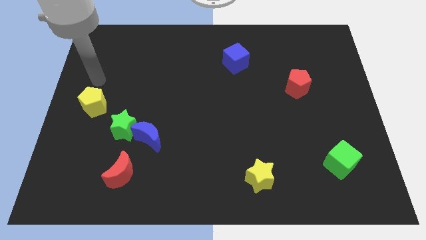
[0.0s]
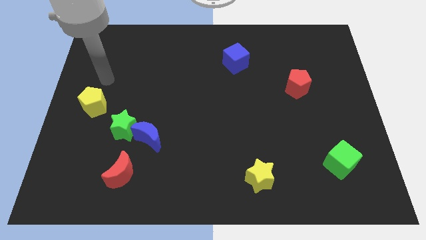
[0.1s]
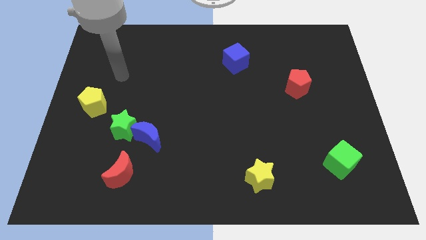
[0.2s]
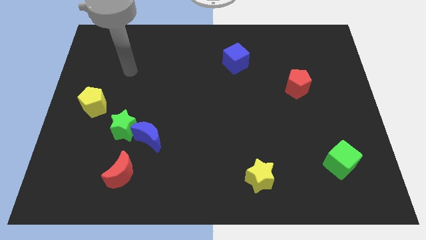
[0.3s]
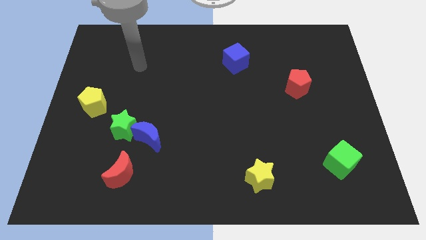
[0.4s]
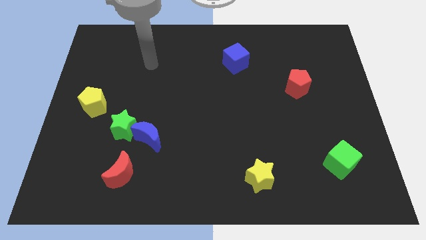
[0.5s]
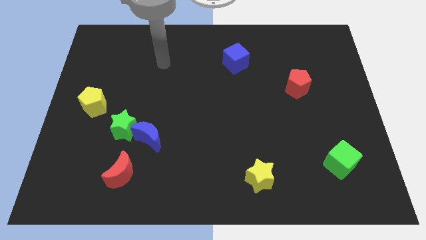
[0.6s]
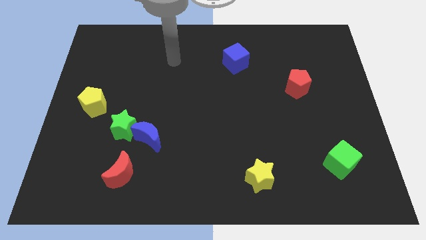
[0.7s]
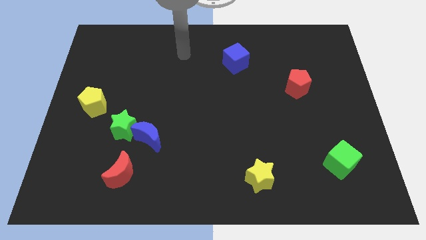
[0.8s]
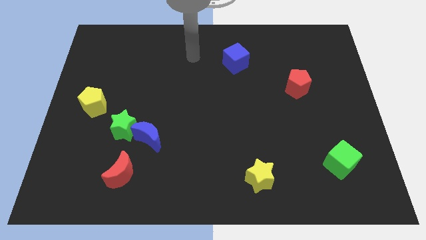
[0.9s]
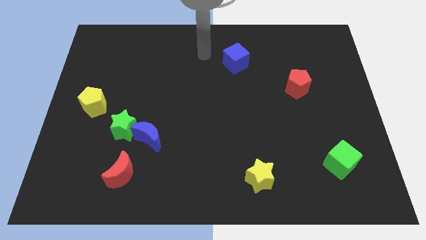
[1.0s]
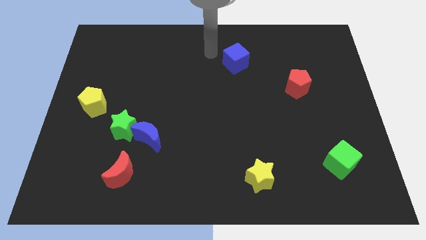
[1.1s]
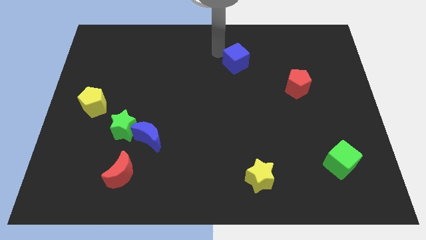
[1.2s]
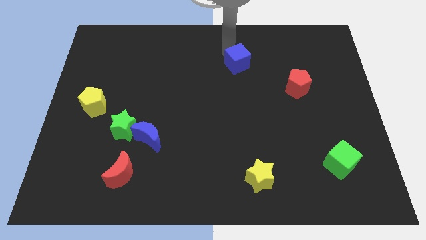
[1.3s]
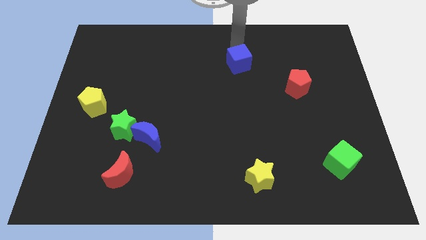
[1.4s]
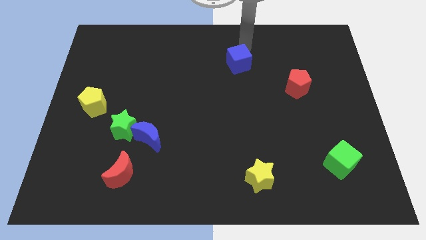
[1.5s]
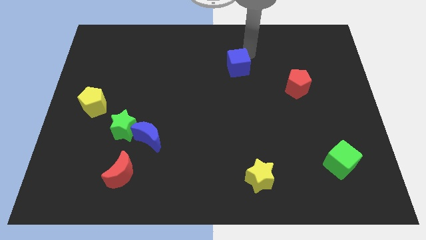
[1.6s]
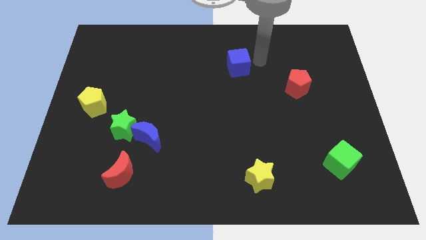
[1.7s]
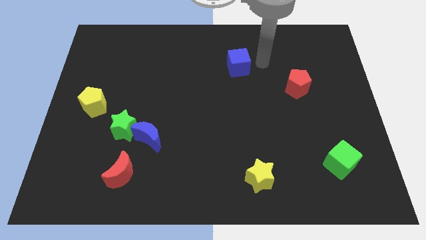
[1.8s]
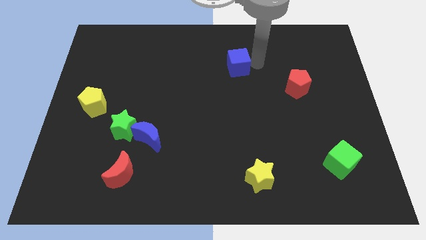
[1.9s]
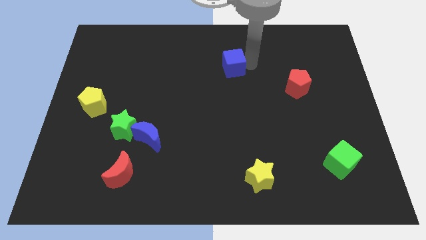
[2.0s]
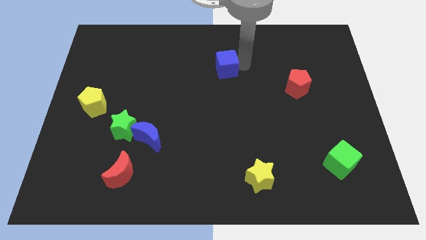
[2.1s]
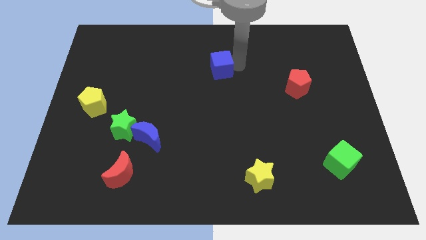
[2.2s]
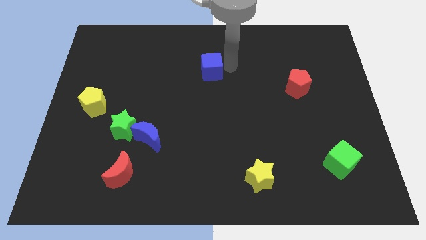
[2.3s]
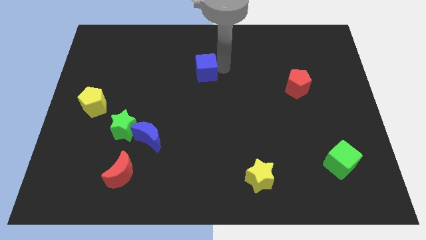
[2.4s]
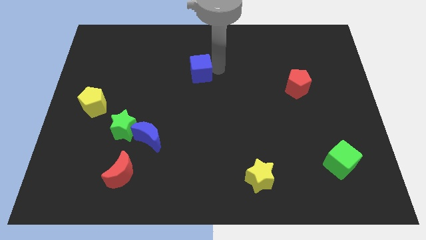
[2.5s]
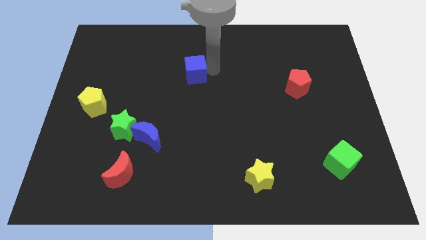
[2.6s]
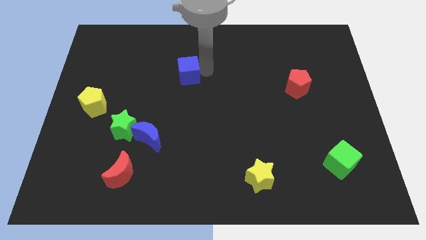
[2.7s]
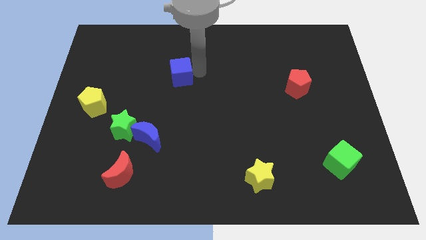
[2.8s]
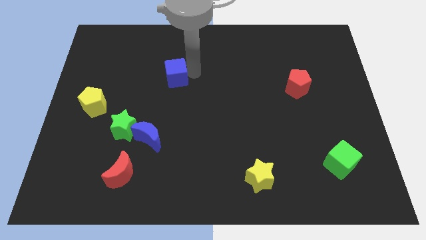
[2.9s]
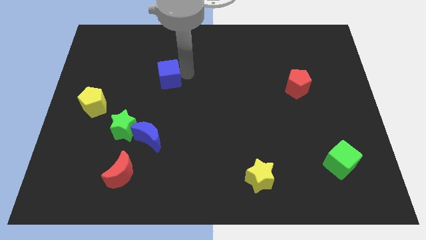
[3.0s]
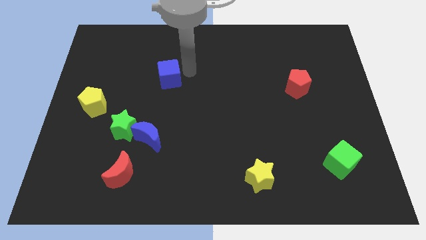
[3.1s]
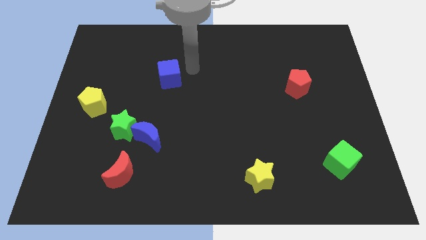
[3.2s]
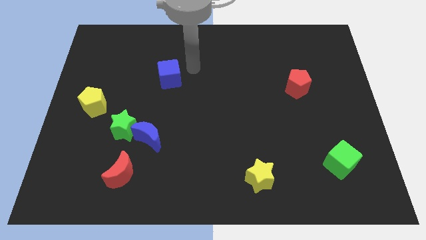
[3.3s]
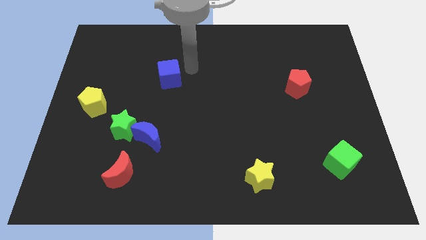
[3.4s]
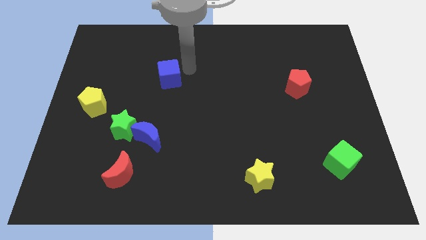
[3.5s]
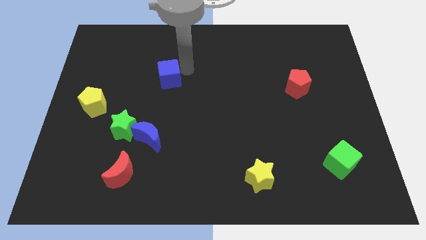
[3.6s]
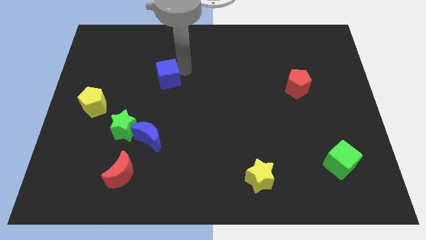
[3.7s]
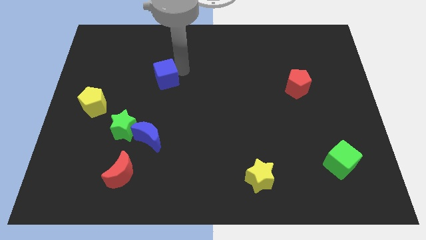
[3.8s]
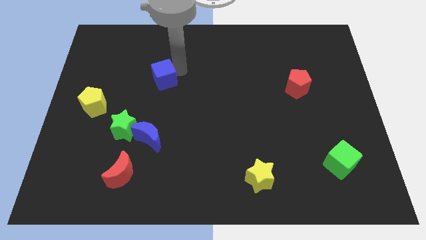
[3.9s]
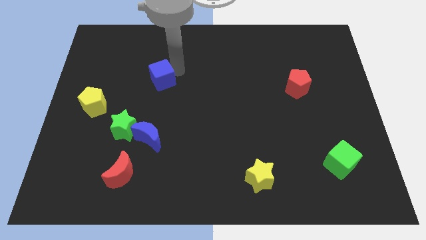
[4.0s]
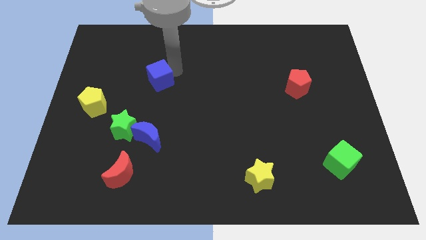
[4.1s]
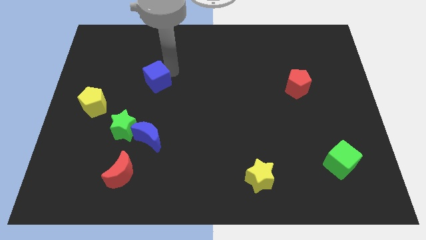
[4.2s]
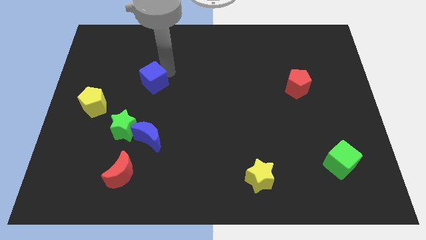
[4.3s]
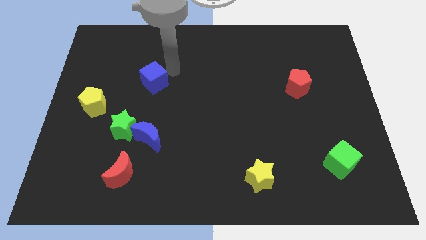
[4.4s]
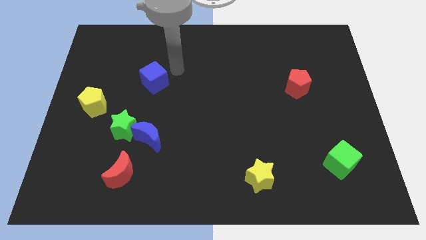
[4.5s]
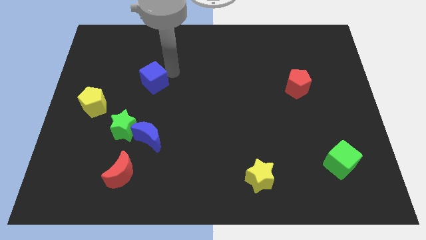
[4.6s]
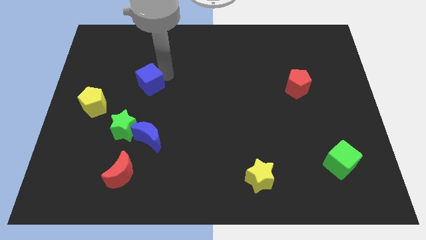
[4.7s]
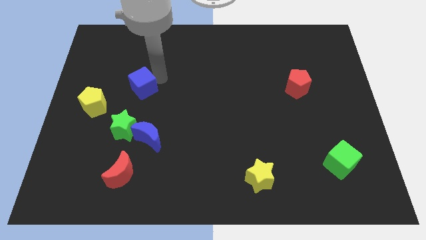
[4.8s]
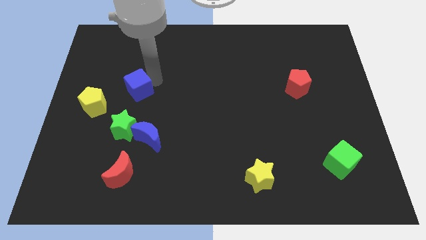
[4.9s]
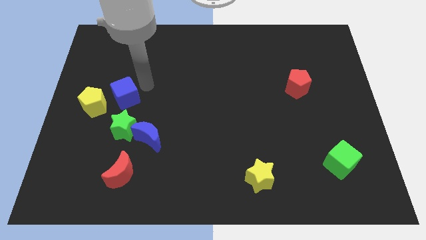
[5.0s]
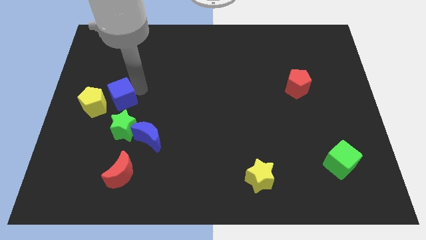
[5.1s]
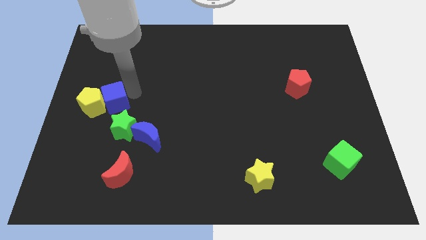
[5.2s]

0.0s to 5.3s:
put the blue cube towards the yellow pentagon

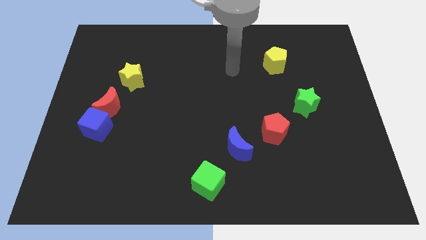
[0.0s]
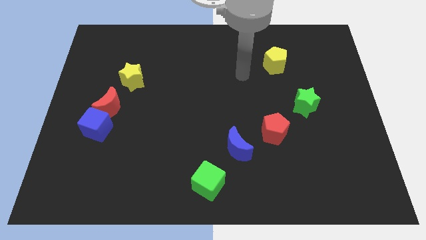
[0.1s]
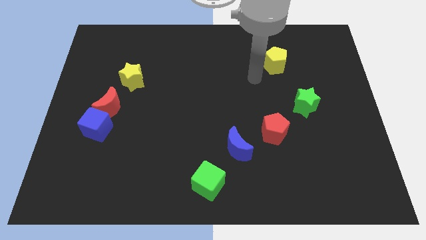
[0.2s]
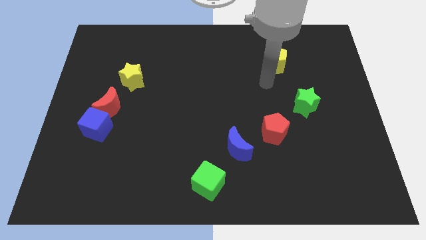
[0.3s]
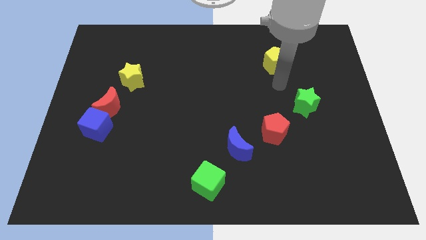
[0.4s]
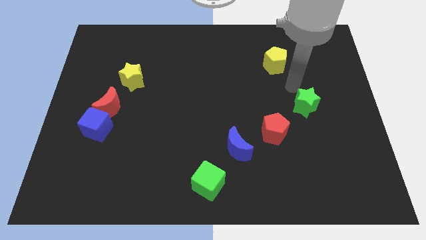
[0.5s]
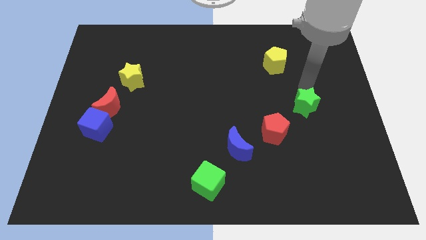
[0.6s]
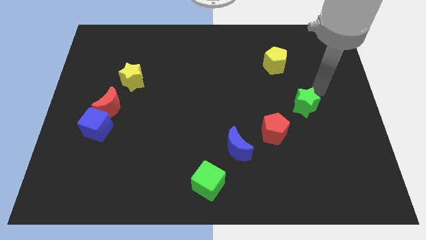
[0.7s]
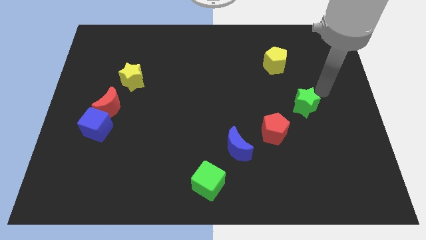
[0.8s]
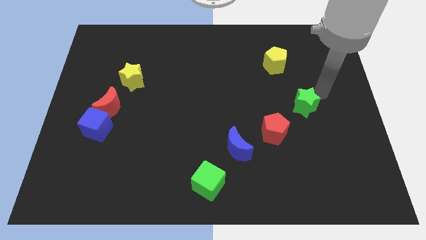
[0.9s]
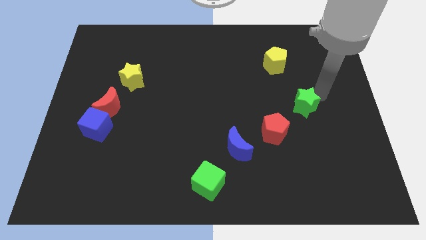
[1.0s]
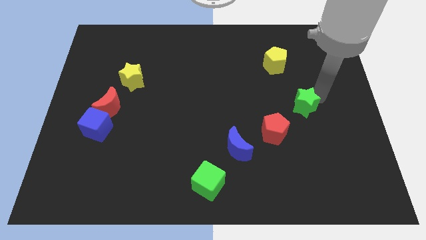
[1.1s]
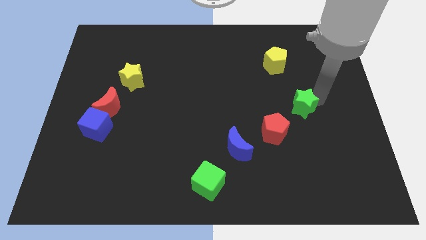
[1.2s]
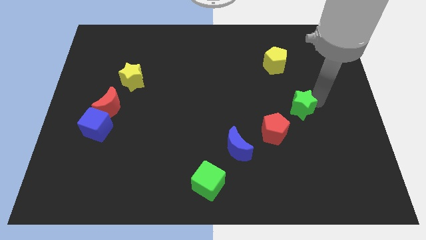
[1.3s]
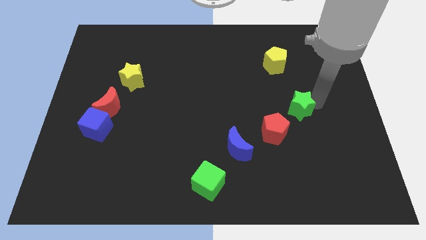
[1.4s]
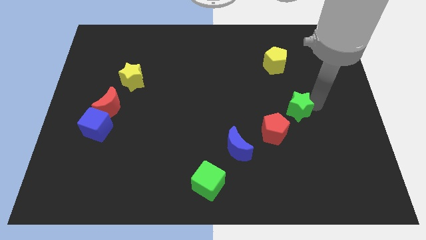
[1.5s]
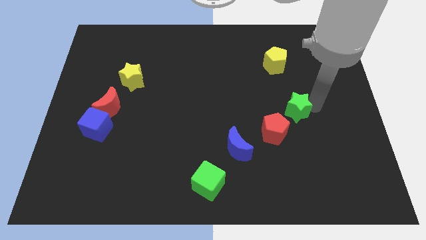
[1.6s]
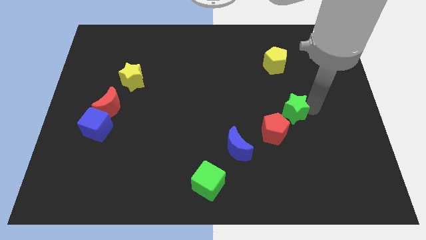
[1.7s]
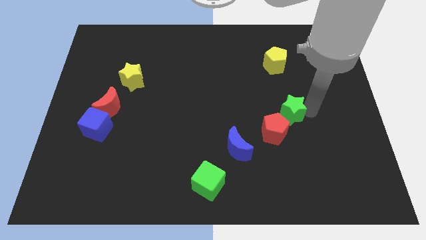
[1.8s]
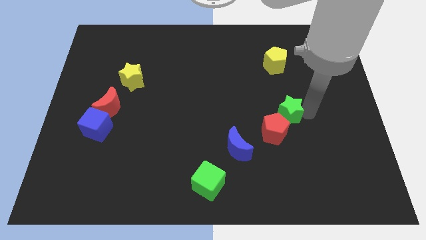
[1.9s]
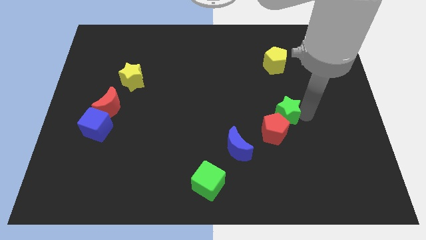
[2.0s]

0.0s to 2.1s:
put the green star next to the red pentagon
